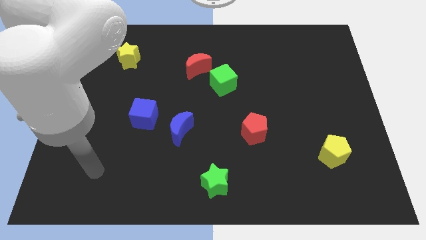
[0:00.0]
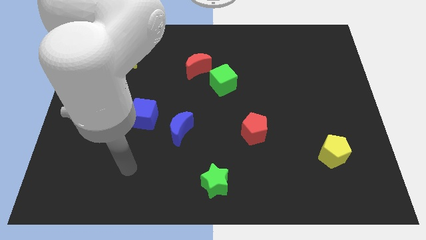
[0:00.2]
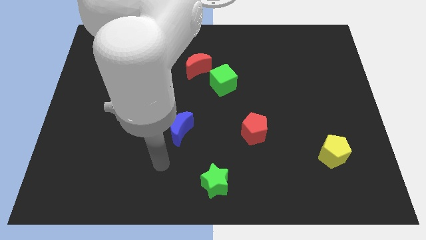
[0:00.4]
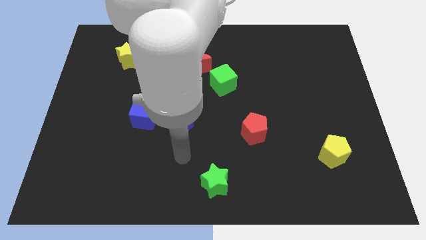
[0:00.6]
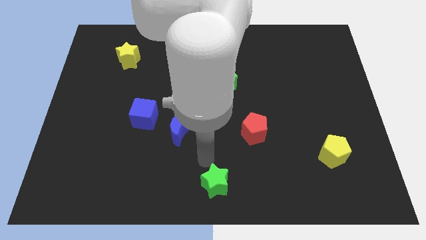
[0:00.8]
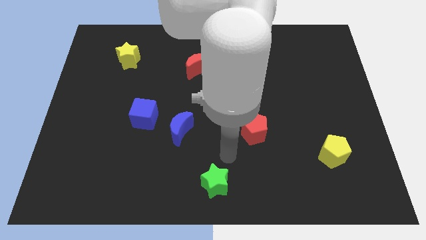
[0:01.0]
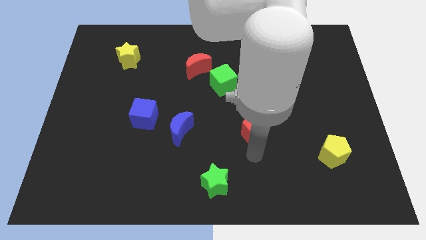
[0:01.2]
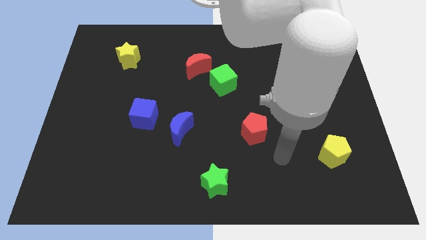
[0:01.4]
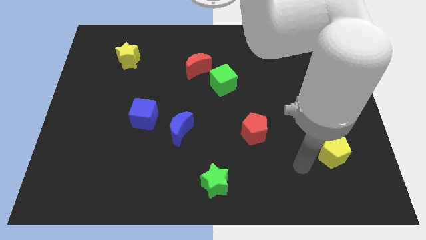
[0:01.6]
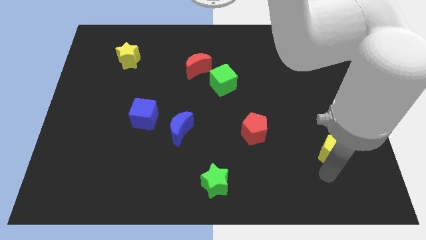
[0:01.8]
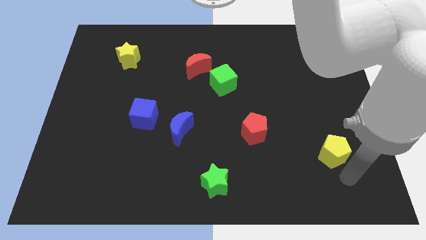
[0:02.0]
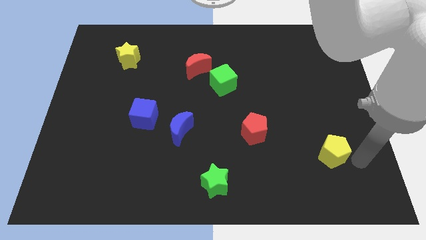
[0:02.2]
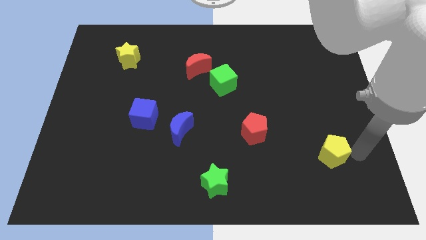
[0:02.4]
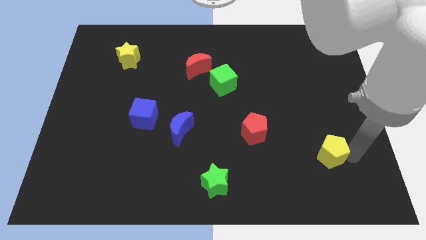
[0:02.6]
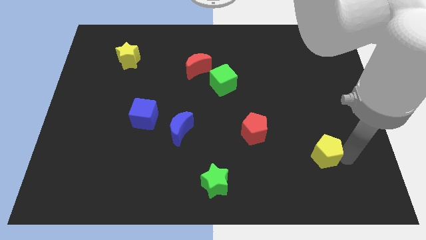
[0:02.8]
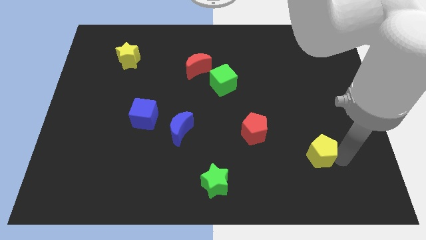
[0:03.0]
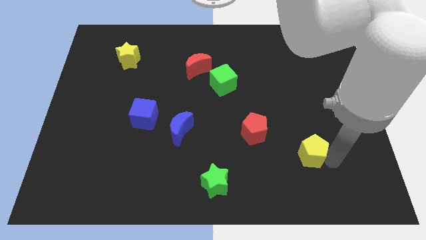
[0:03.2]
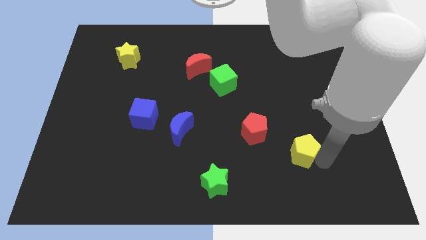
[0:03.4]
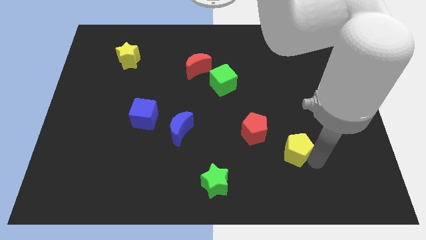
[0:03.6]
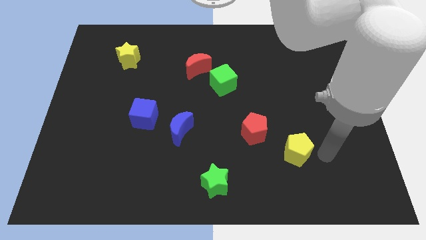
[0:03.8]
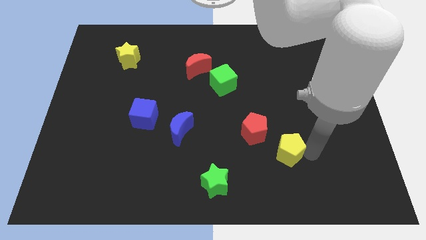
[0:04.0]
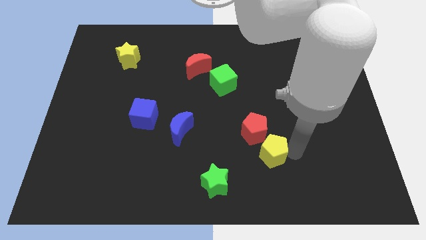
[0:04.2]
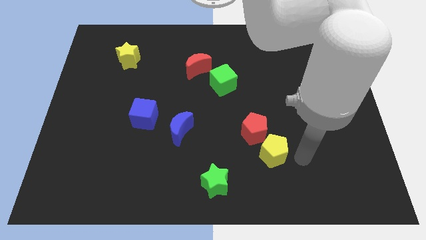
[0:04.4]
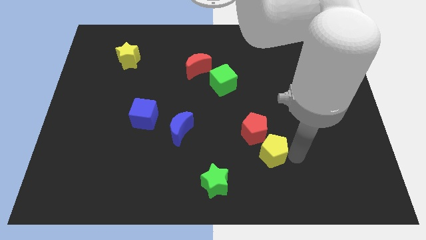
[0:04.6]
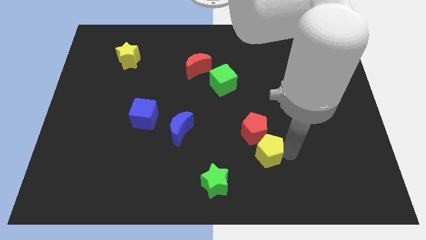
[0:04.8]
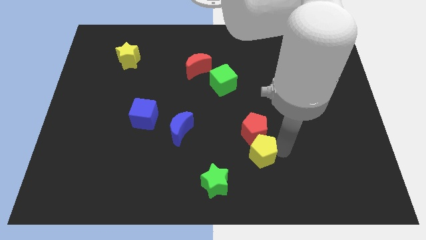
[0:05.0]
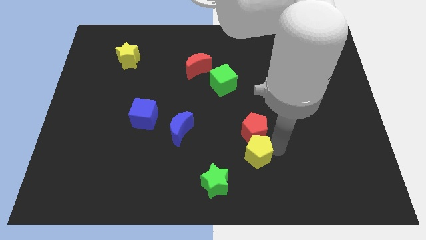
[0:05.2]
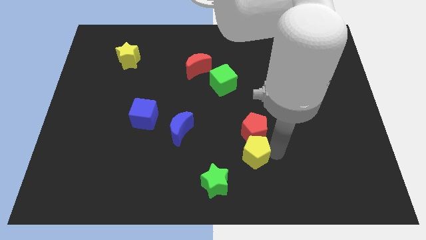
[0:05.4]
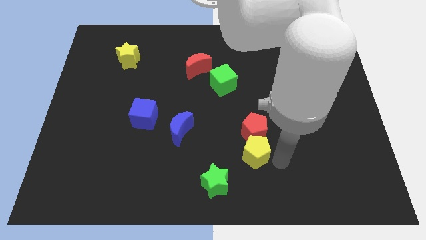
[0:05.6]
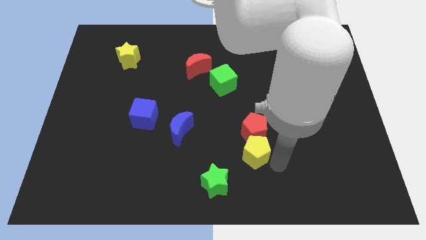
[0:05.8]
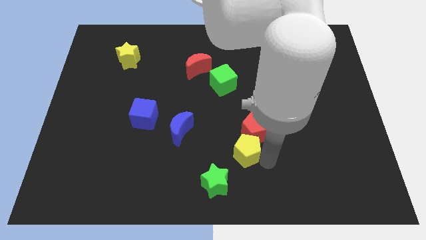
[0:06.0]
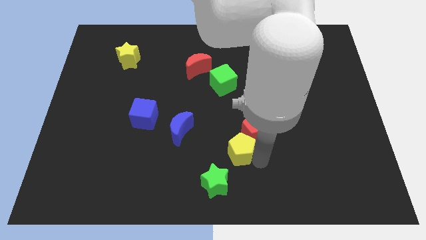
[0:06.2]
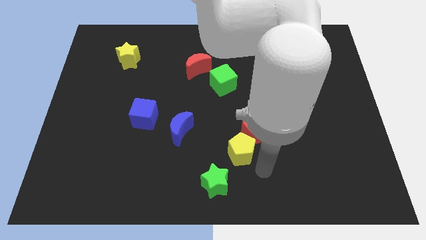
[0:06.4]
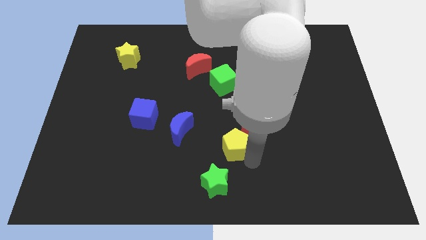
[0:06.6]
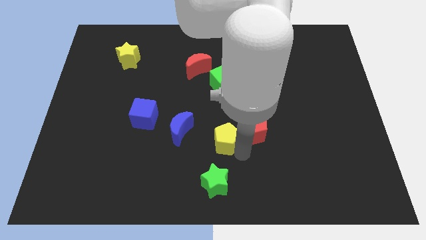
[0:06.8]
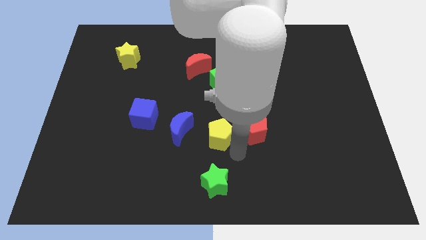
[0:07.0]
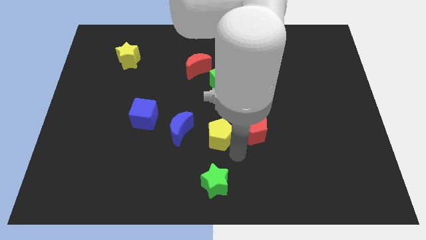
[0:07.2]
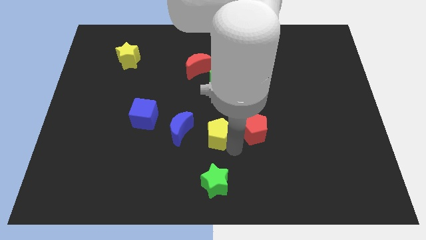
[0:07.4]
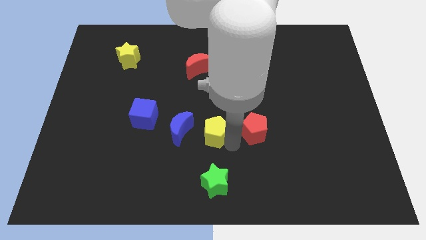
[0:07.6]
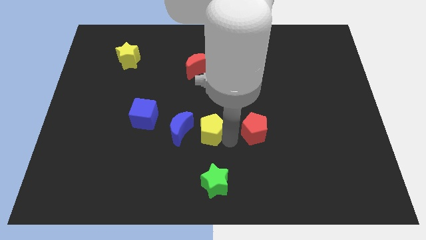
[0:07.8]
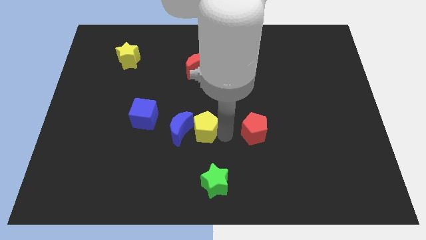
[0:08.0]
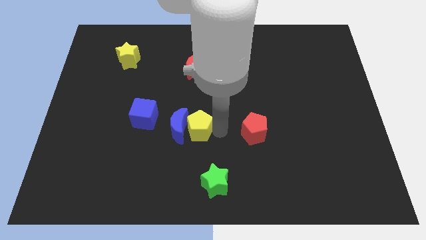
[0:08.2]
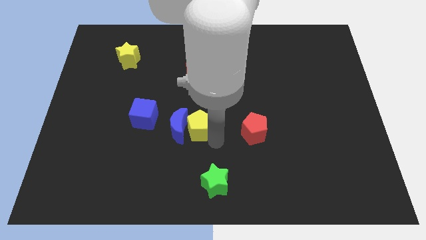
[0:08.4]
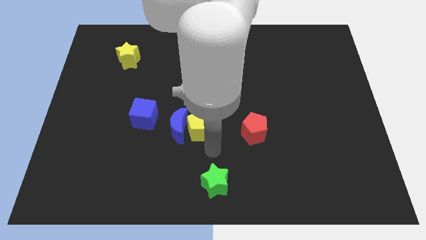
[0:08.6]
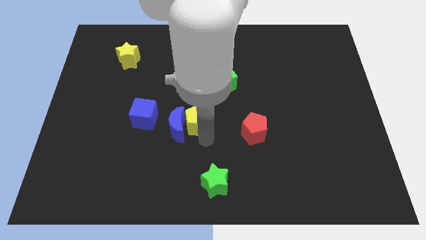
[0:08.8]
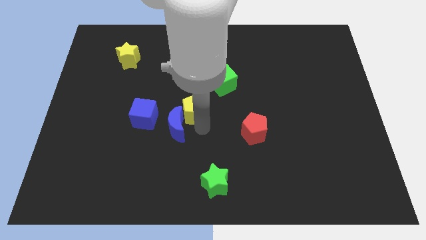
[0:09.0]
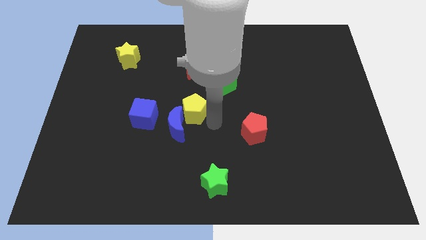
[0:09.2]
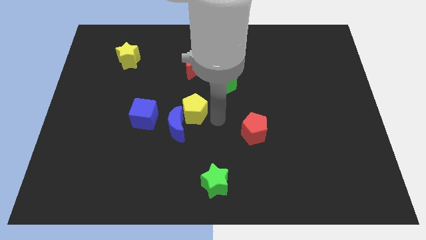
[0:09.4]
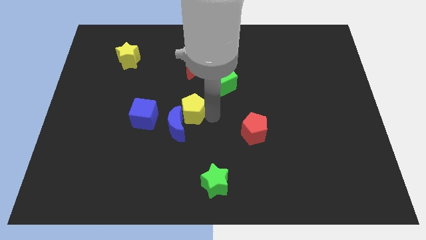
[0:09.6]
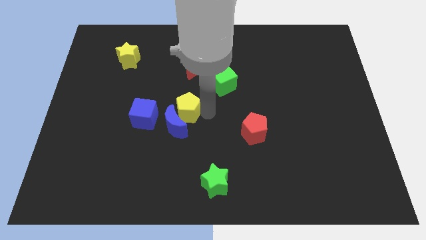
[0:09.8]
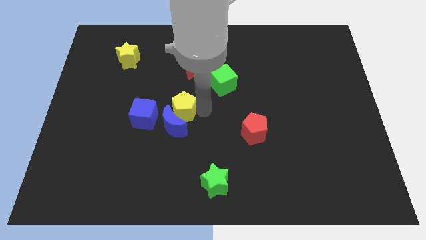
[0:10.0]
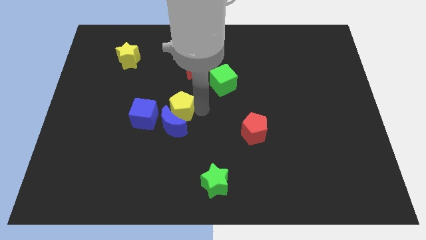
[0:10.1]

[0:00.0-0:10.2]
move the yellow pentagon to the top left side of the blue moon

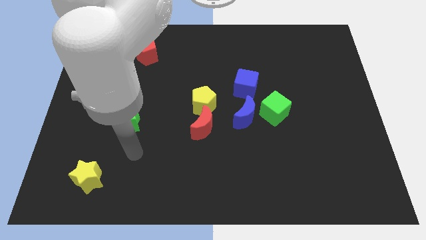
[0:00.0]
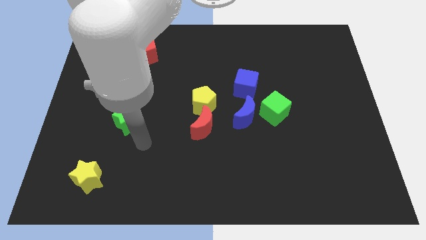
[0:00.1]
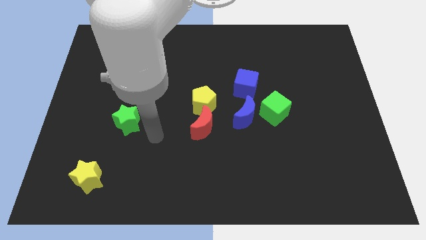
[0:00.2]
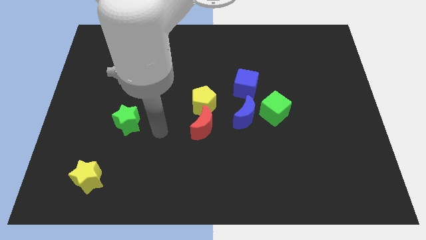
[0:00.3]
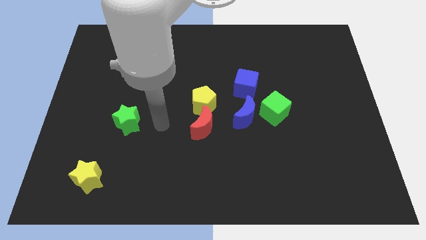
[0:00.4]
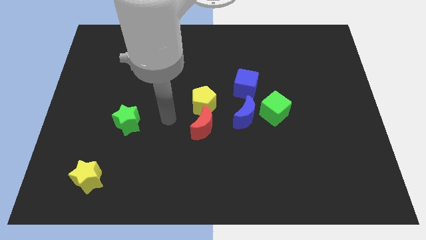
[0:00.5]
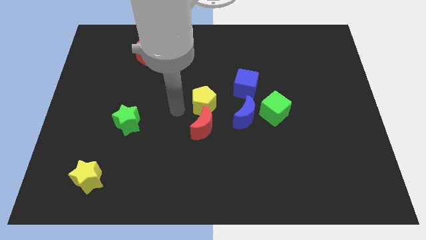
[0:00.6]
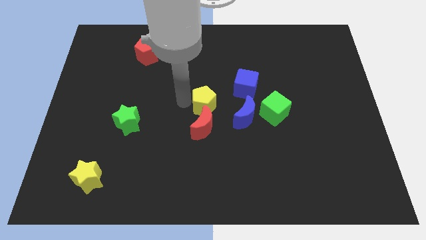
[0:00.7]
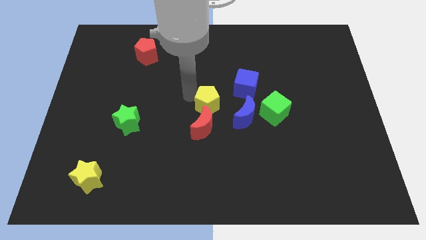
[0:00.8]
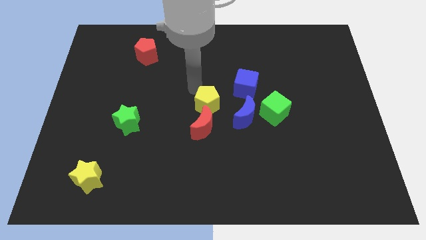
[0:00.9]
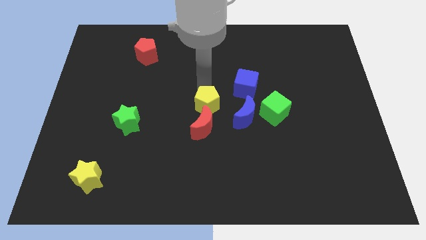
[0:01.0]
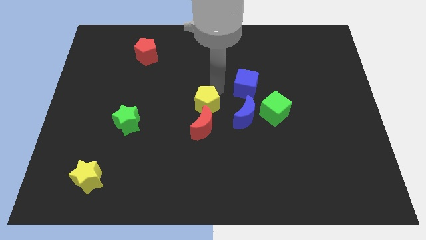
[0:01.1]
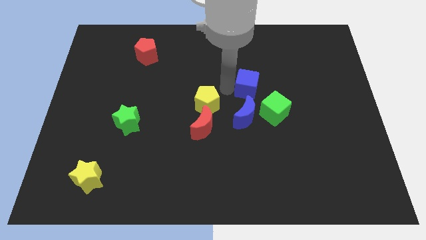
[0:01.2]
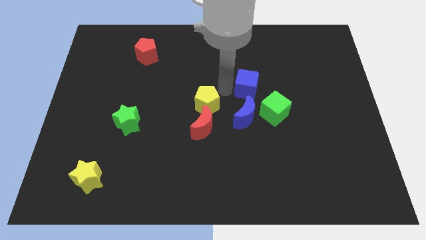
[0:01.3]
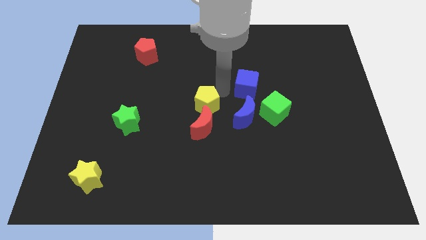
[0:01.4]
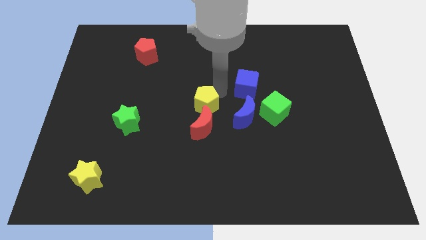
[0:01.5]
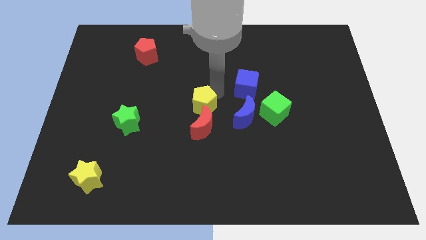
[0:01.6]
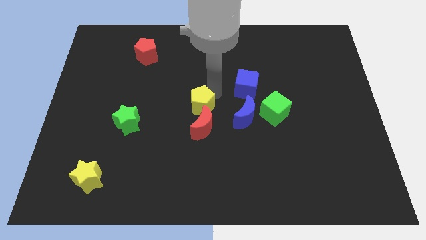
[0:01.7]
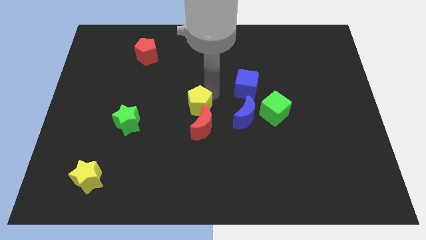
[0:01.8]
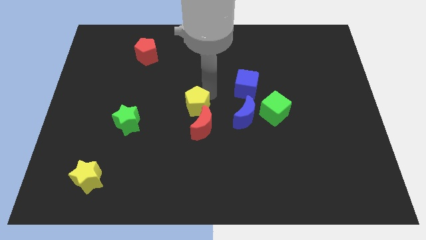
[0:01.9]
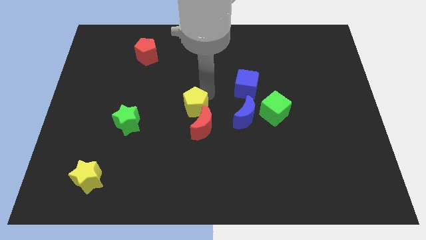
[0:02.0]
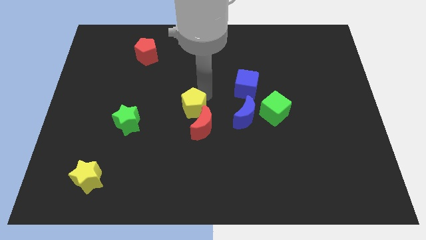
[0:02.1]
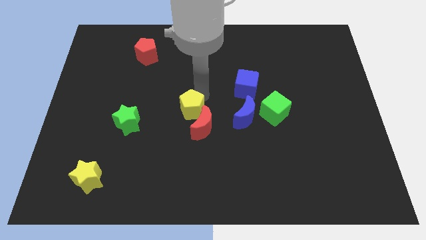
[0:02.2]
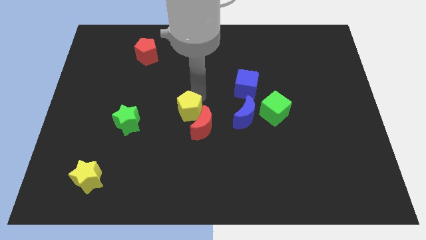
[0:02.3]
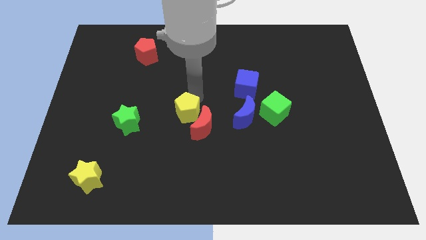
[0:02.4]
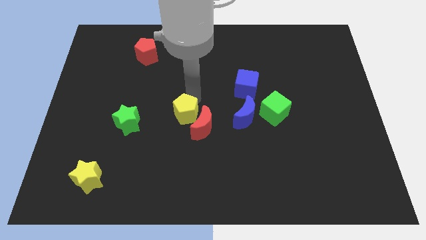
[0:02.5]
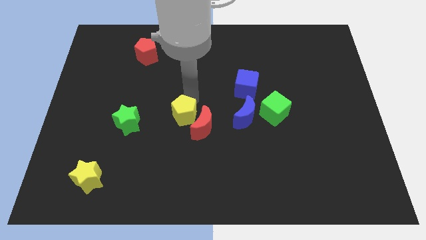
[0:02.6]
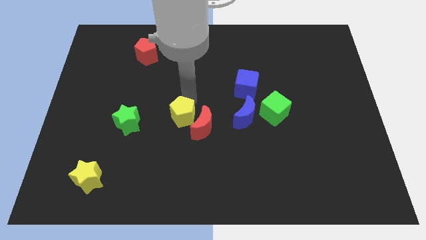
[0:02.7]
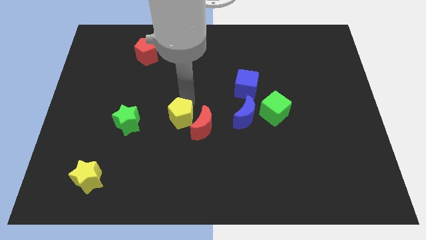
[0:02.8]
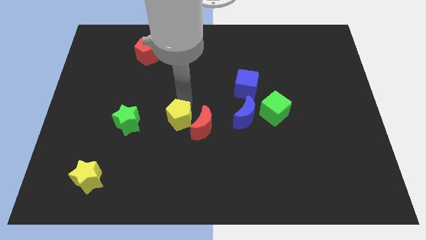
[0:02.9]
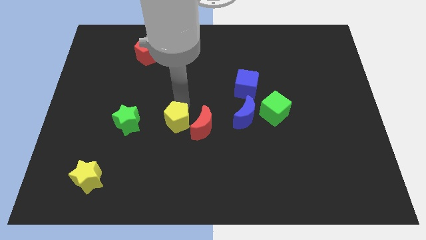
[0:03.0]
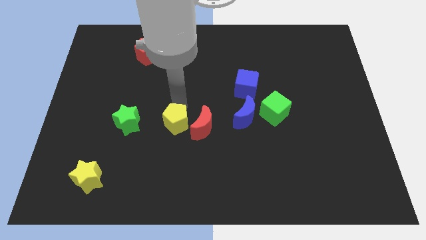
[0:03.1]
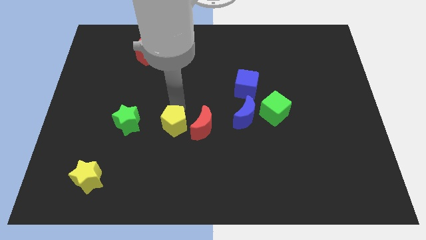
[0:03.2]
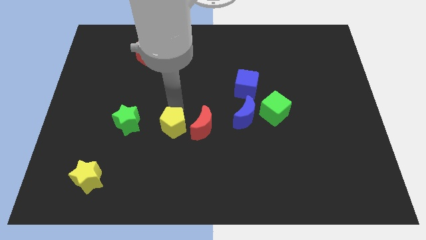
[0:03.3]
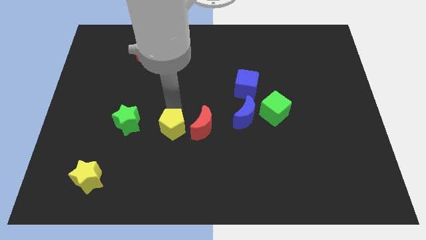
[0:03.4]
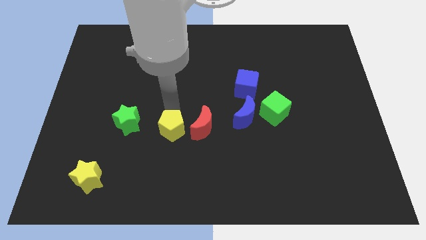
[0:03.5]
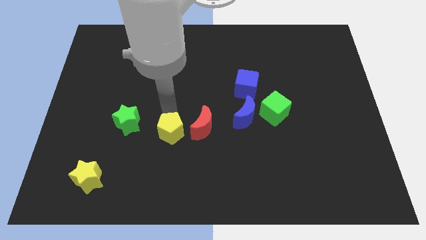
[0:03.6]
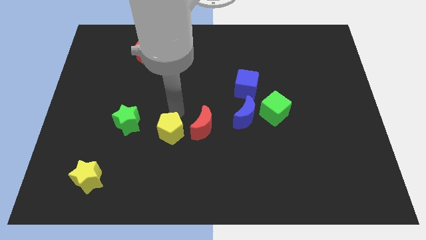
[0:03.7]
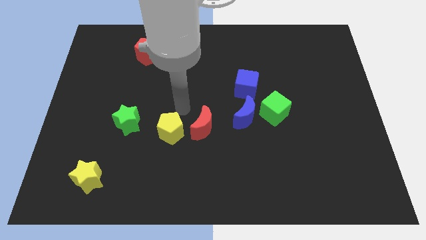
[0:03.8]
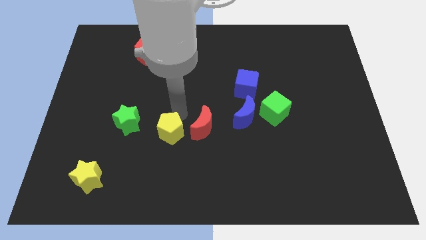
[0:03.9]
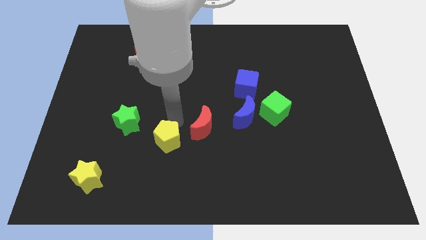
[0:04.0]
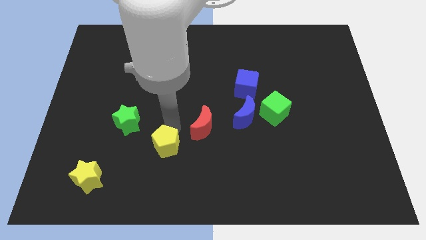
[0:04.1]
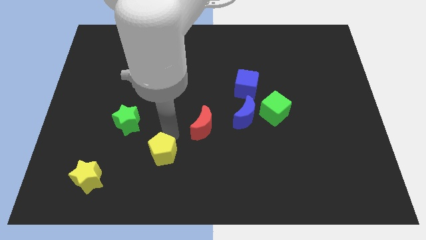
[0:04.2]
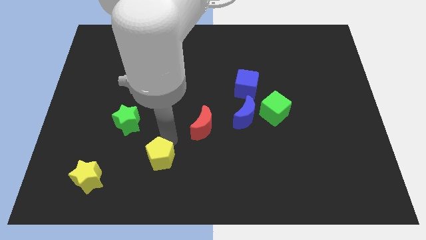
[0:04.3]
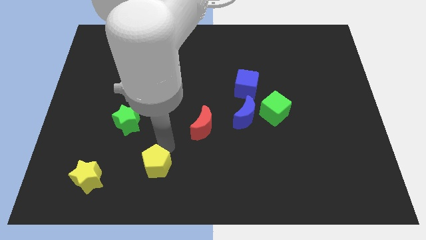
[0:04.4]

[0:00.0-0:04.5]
put the yellow pentagon just right of the yellow star
